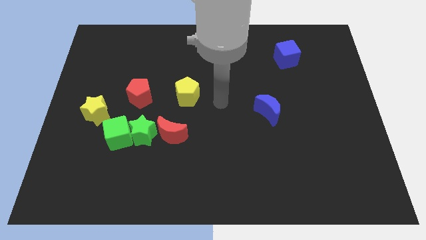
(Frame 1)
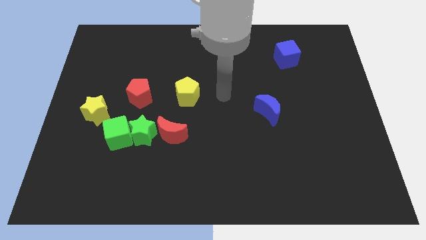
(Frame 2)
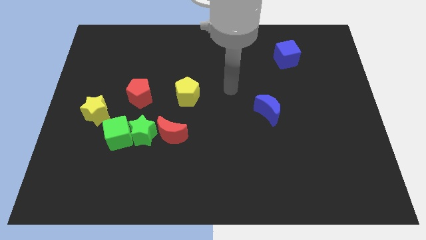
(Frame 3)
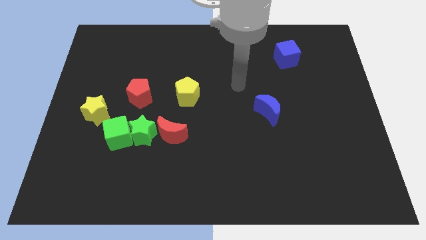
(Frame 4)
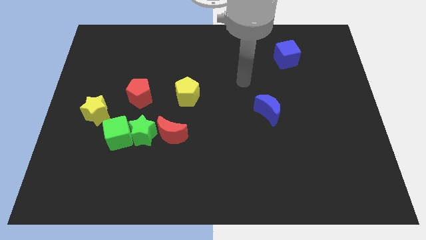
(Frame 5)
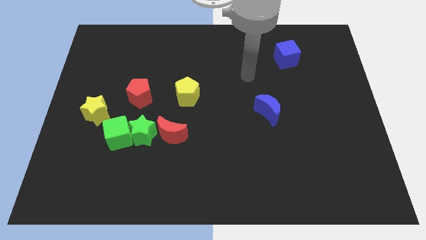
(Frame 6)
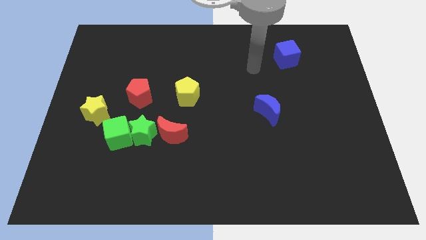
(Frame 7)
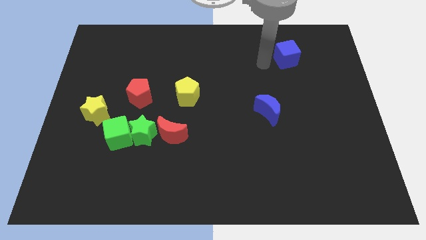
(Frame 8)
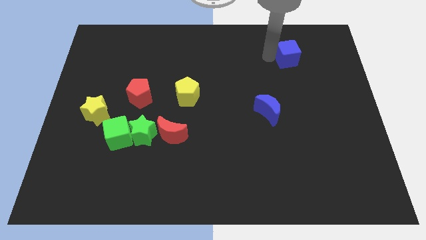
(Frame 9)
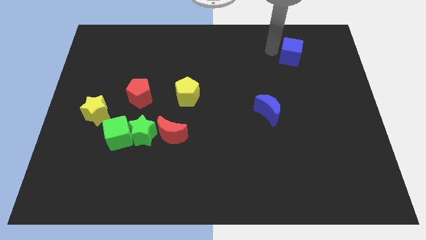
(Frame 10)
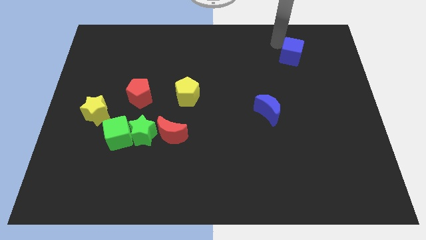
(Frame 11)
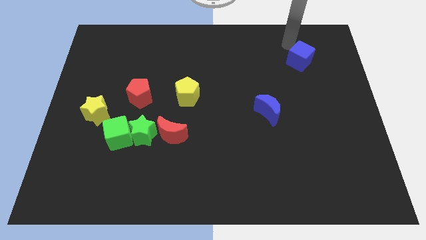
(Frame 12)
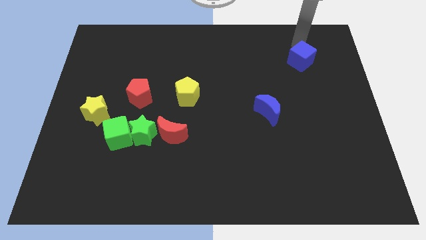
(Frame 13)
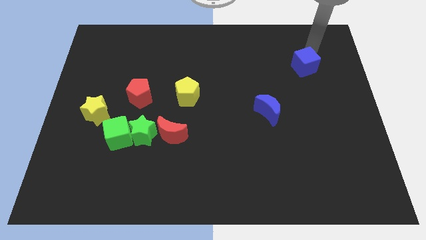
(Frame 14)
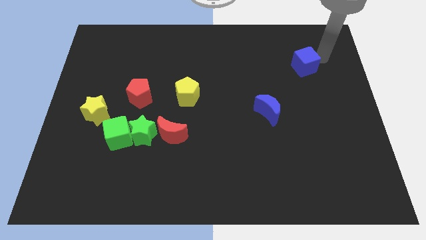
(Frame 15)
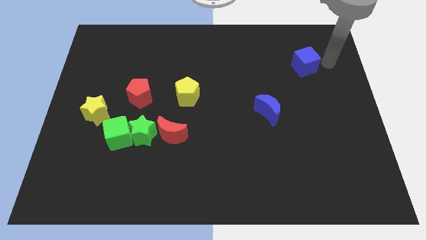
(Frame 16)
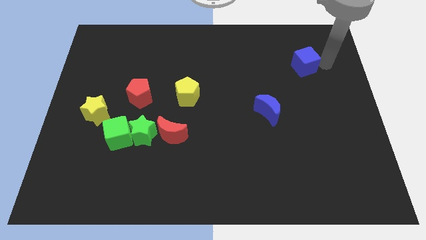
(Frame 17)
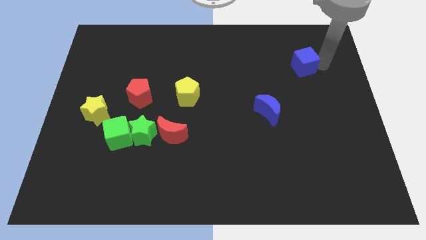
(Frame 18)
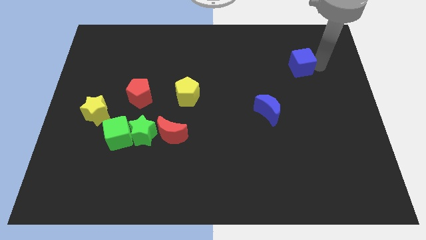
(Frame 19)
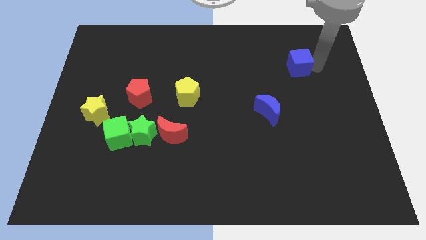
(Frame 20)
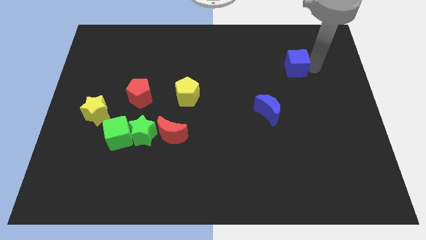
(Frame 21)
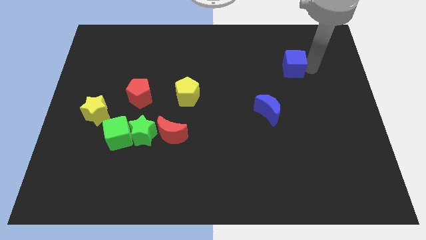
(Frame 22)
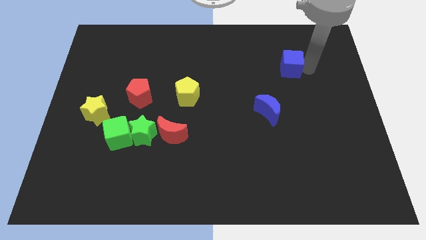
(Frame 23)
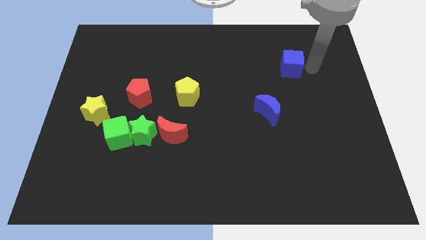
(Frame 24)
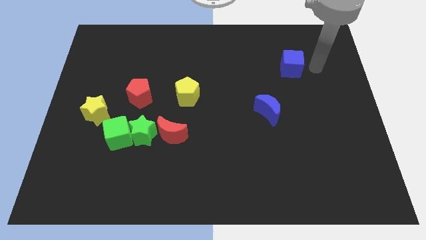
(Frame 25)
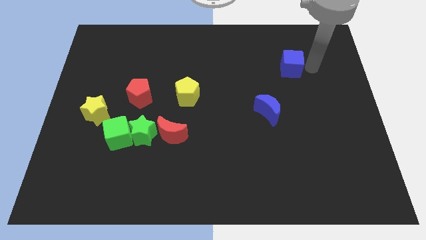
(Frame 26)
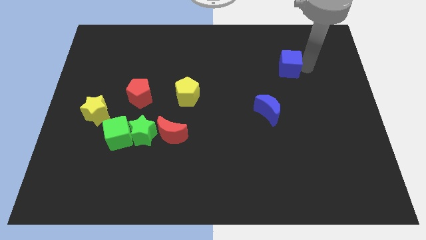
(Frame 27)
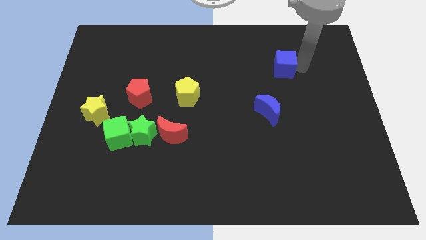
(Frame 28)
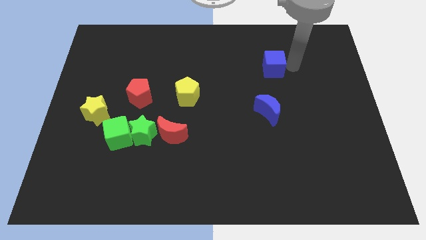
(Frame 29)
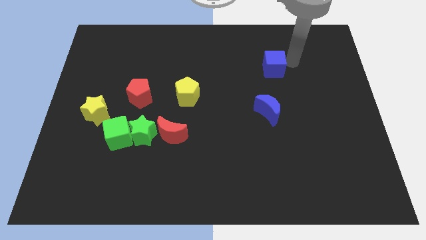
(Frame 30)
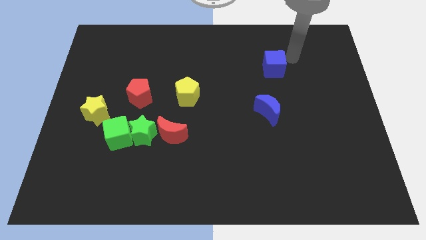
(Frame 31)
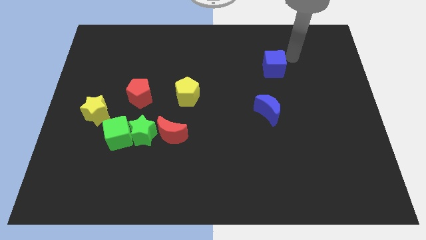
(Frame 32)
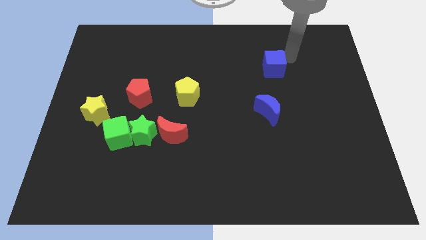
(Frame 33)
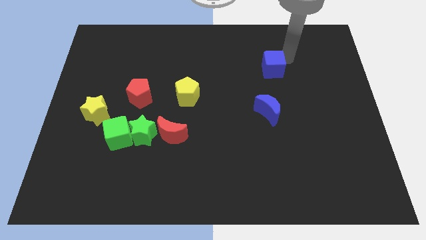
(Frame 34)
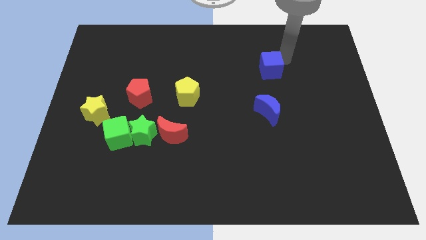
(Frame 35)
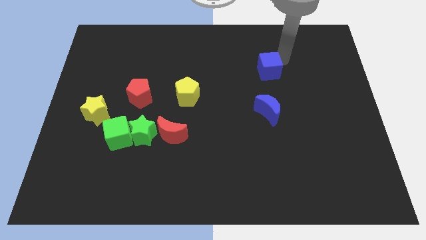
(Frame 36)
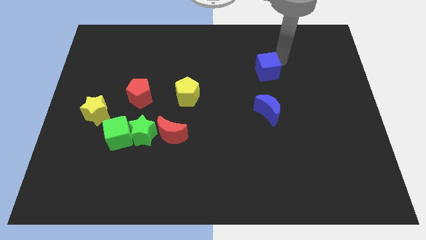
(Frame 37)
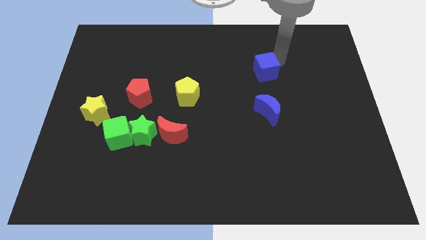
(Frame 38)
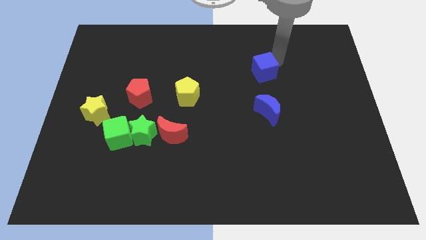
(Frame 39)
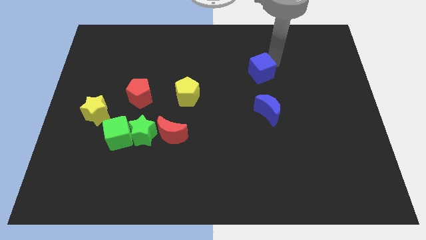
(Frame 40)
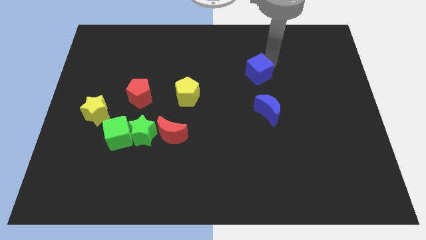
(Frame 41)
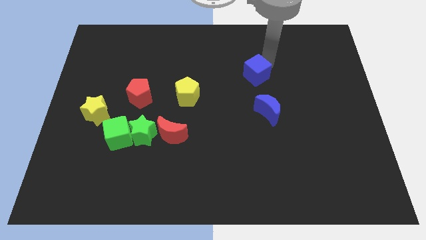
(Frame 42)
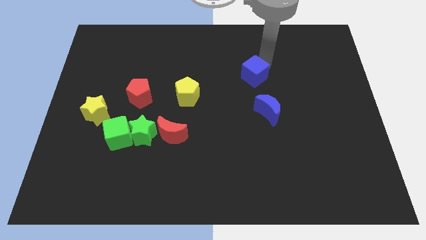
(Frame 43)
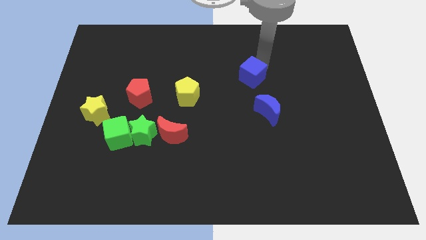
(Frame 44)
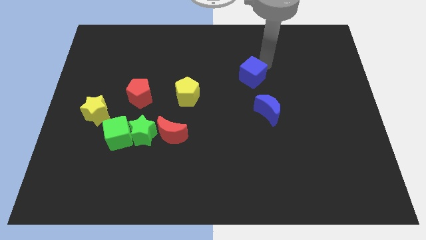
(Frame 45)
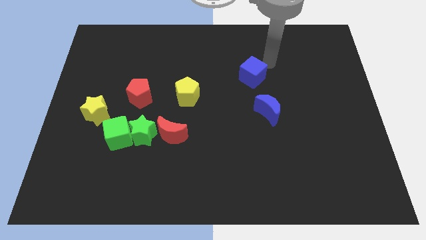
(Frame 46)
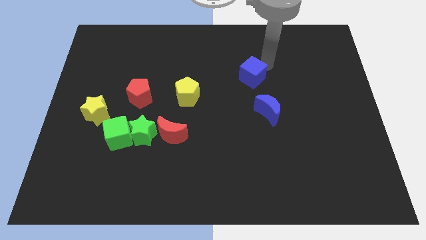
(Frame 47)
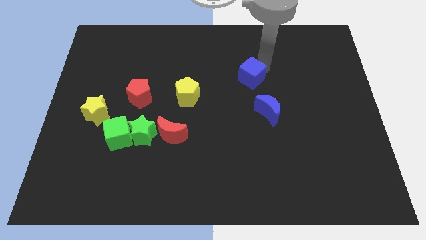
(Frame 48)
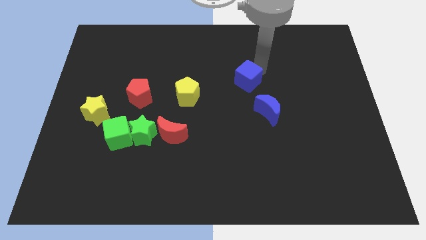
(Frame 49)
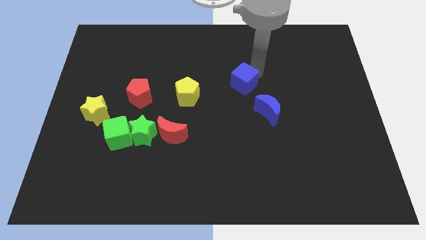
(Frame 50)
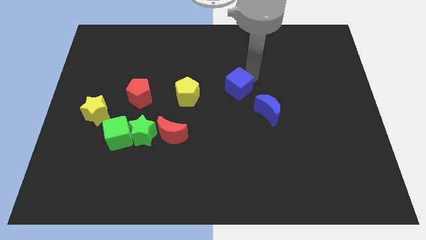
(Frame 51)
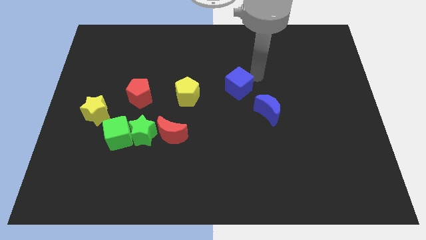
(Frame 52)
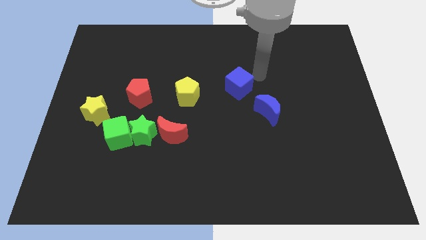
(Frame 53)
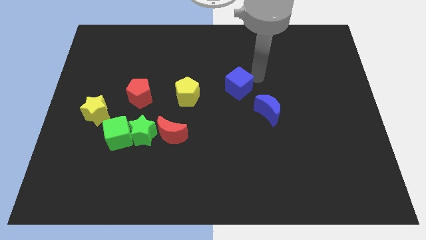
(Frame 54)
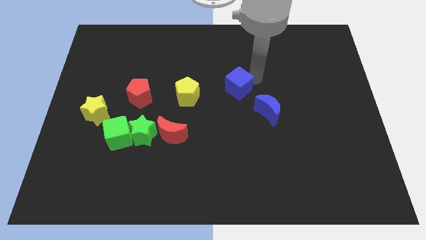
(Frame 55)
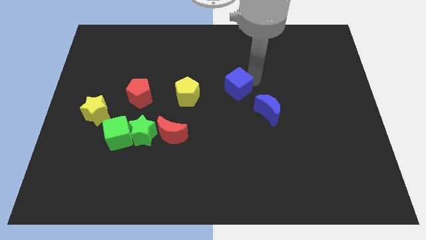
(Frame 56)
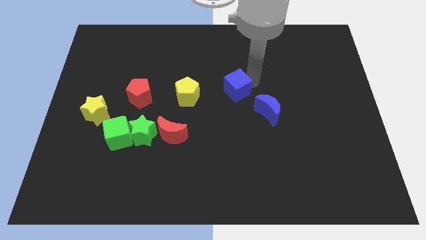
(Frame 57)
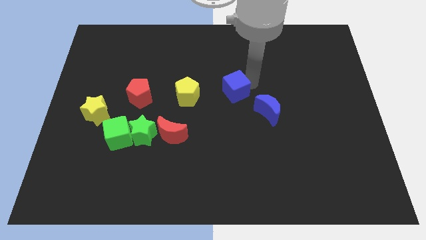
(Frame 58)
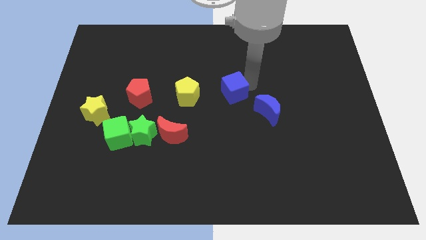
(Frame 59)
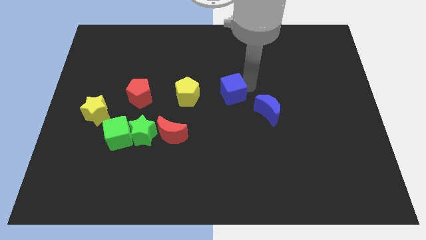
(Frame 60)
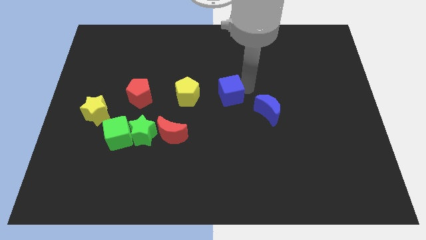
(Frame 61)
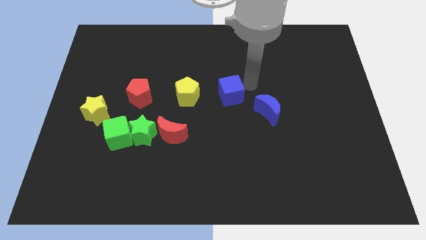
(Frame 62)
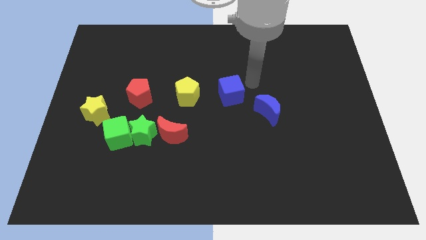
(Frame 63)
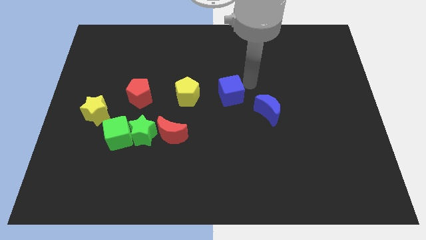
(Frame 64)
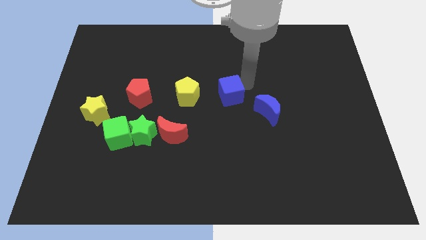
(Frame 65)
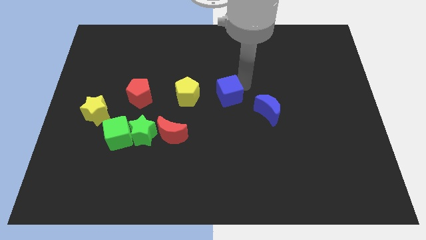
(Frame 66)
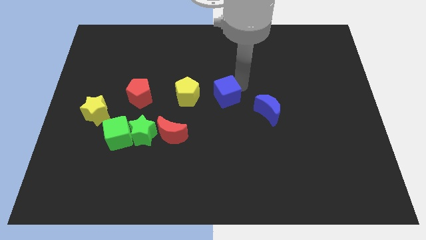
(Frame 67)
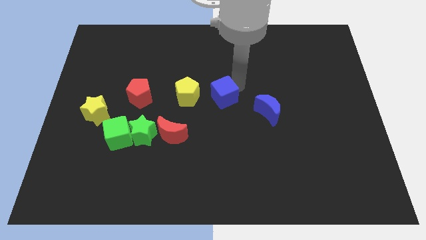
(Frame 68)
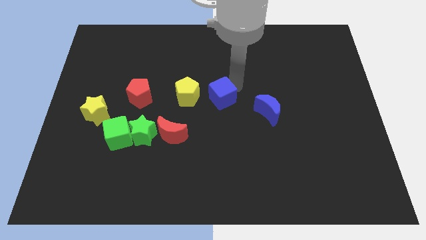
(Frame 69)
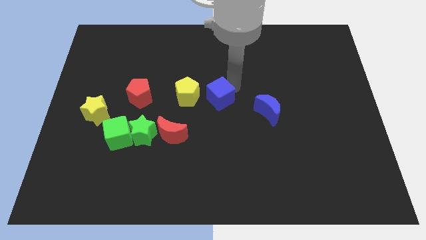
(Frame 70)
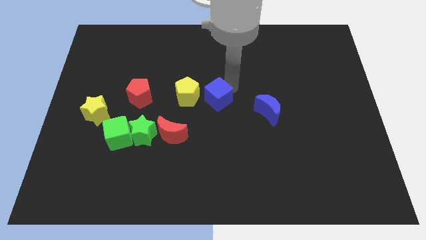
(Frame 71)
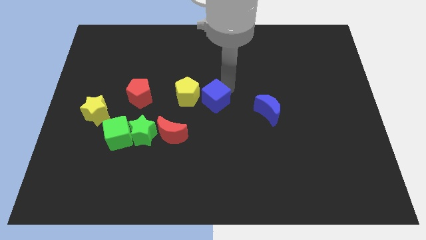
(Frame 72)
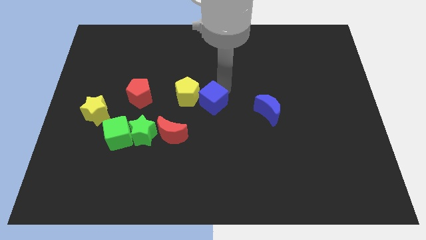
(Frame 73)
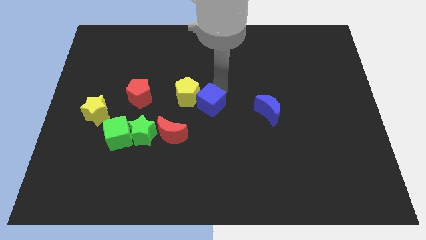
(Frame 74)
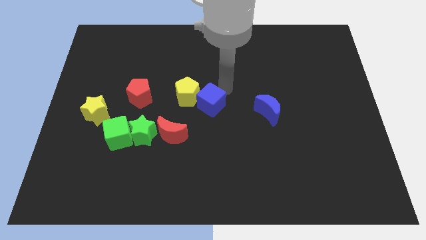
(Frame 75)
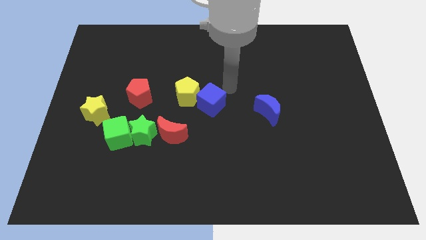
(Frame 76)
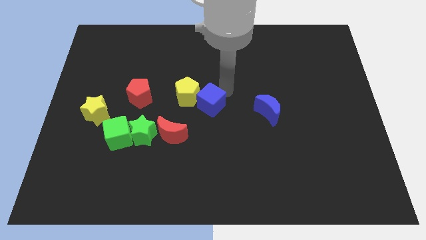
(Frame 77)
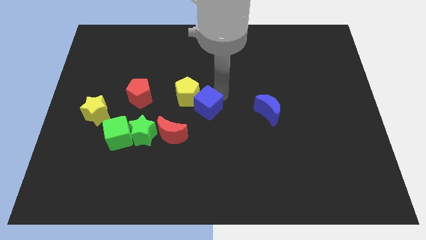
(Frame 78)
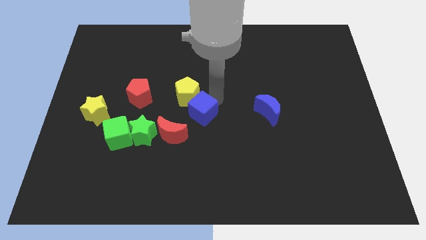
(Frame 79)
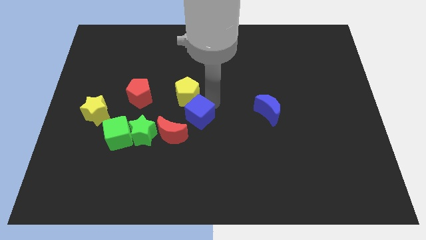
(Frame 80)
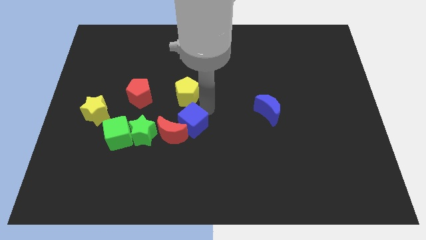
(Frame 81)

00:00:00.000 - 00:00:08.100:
push the blue cube close to the red moon
